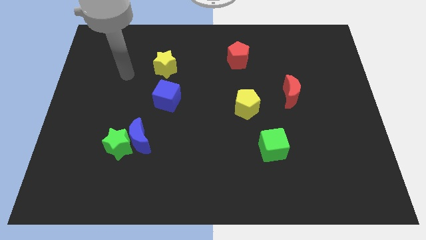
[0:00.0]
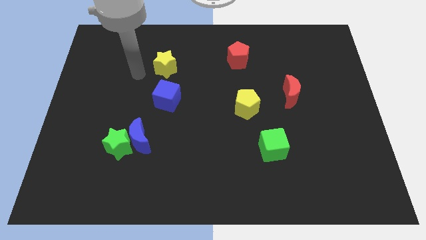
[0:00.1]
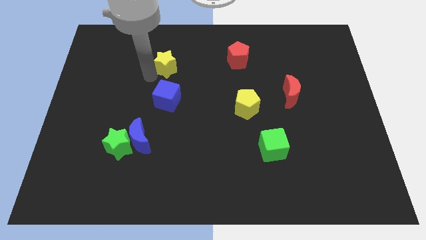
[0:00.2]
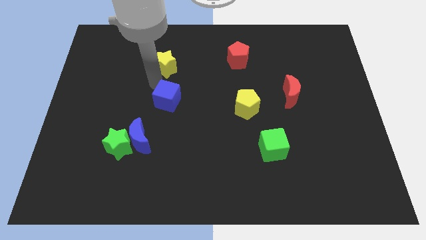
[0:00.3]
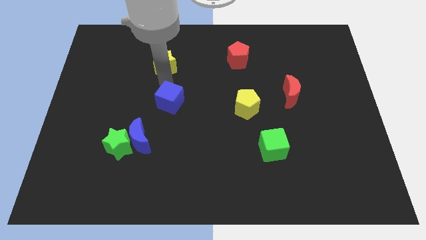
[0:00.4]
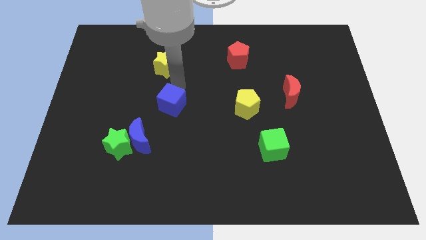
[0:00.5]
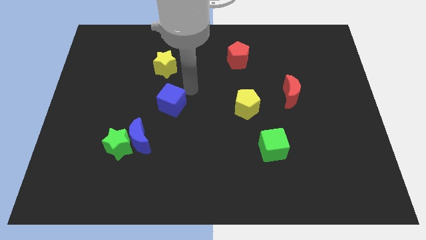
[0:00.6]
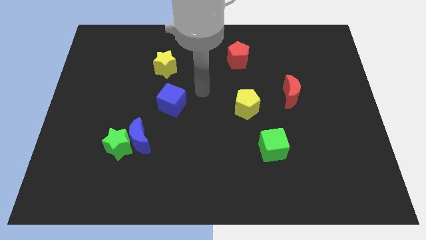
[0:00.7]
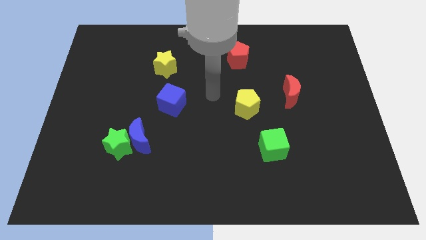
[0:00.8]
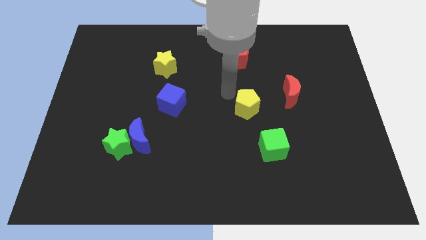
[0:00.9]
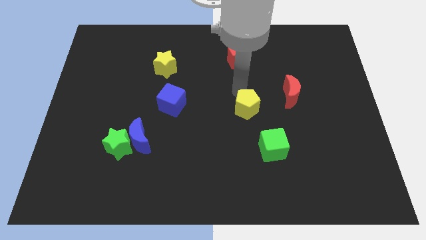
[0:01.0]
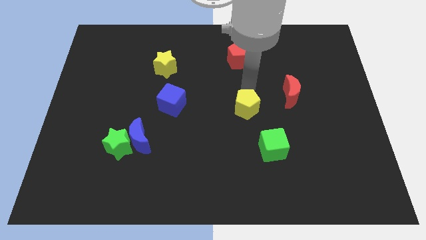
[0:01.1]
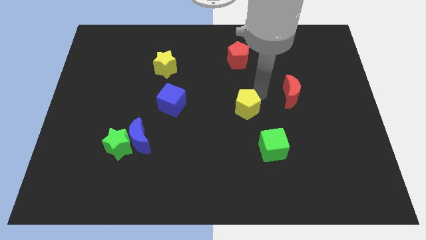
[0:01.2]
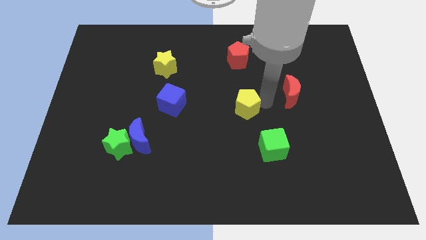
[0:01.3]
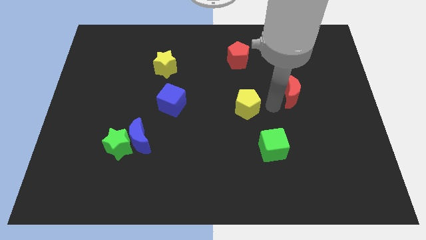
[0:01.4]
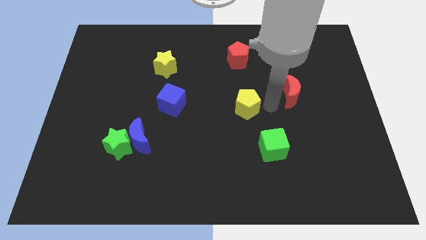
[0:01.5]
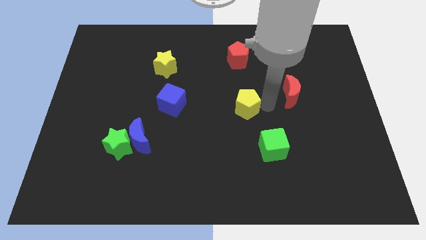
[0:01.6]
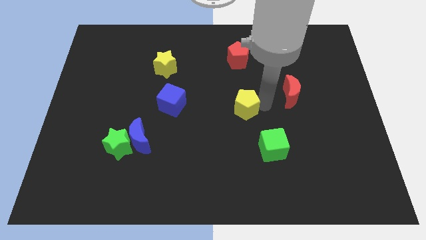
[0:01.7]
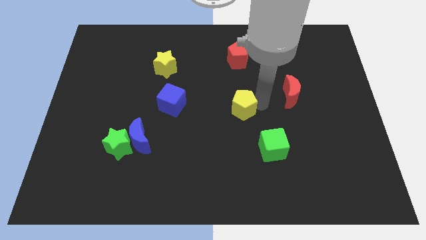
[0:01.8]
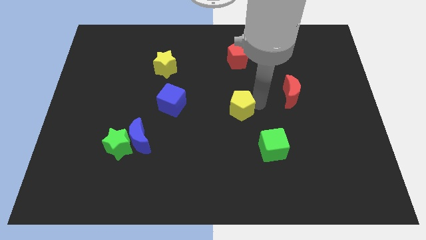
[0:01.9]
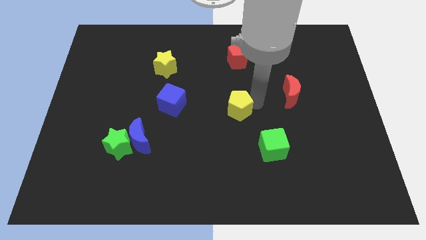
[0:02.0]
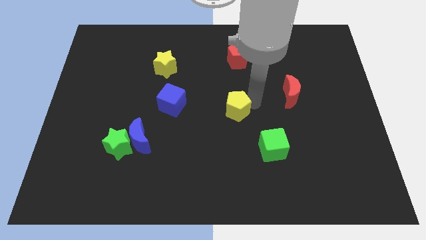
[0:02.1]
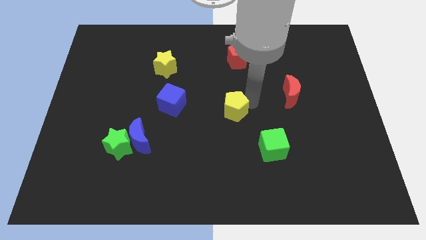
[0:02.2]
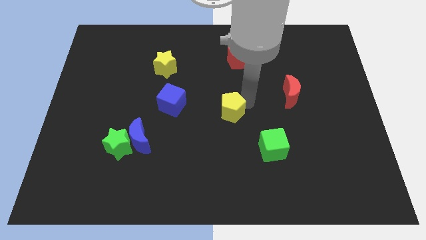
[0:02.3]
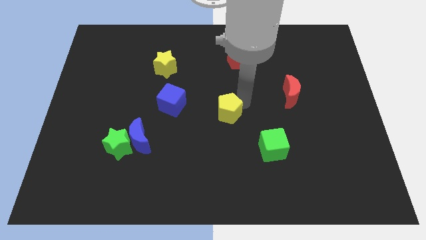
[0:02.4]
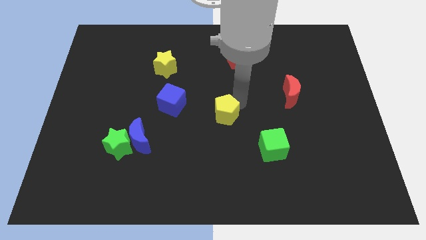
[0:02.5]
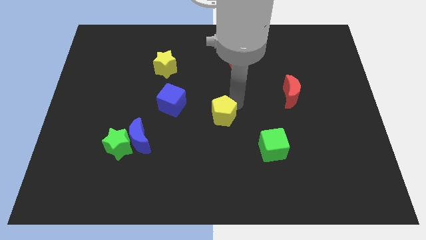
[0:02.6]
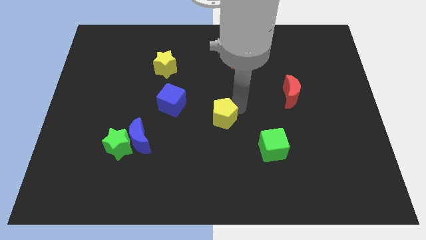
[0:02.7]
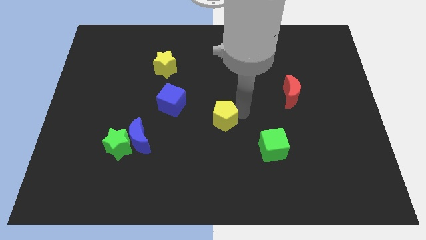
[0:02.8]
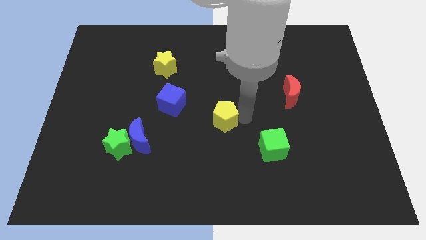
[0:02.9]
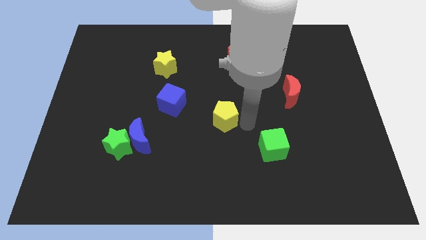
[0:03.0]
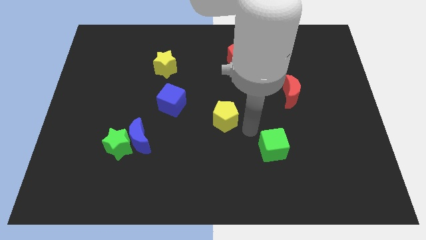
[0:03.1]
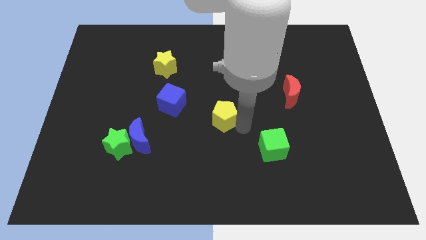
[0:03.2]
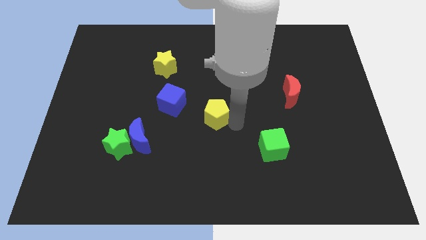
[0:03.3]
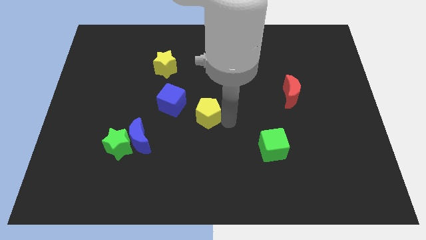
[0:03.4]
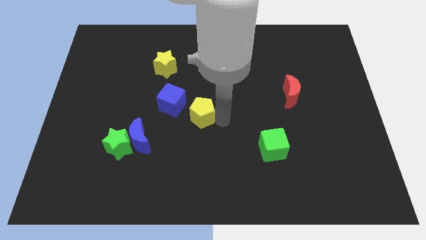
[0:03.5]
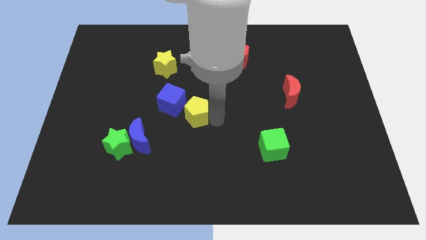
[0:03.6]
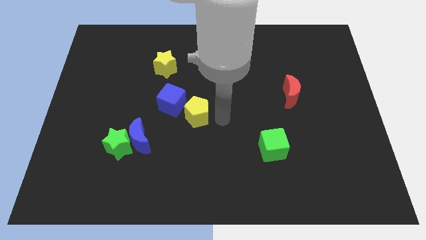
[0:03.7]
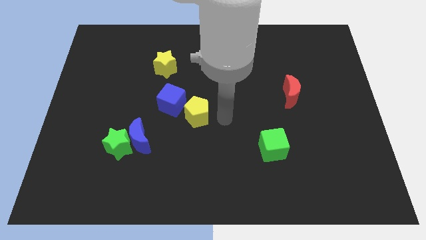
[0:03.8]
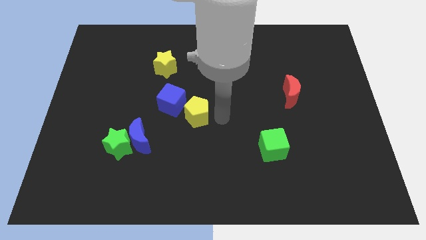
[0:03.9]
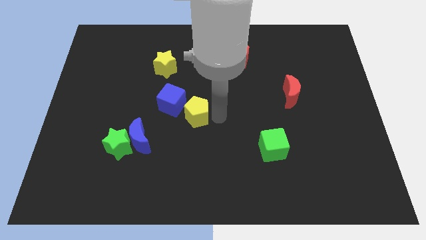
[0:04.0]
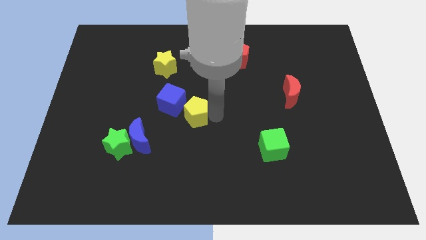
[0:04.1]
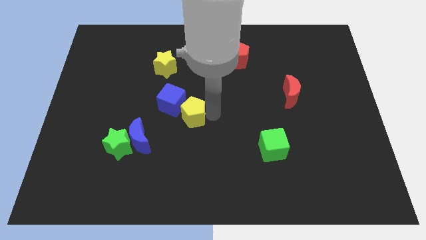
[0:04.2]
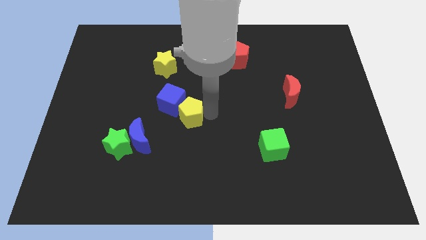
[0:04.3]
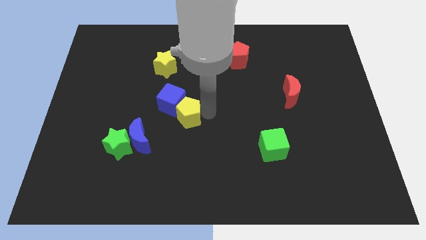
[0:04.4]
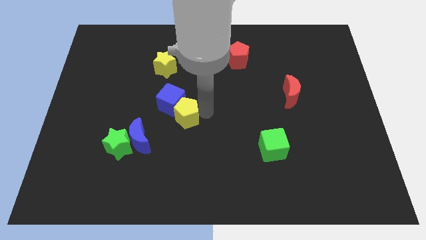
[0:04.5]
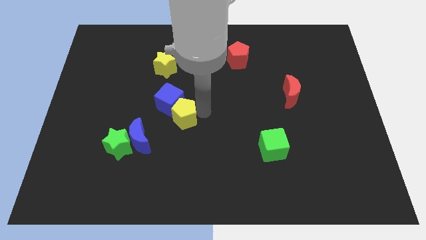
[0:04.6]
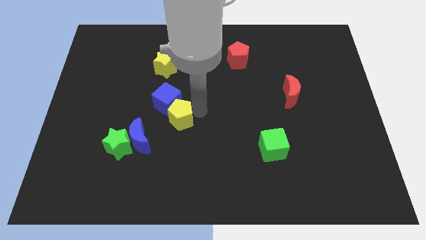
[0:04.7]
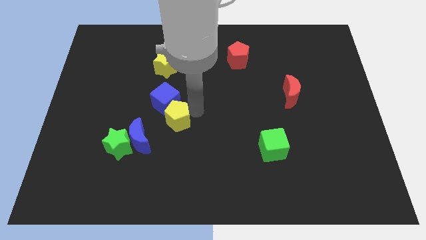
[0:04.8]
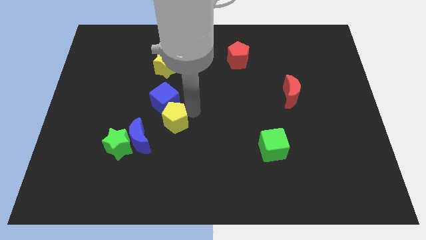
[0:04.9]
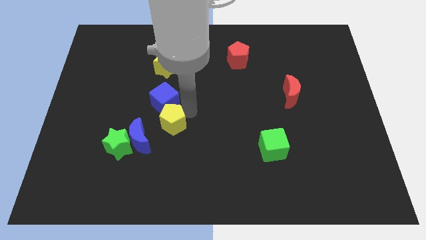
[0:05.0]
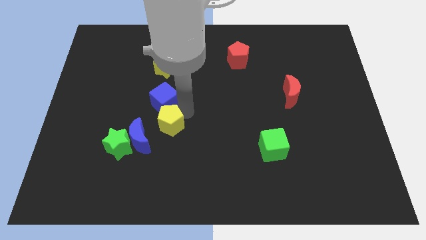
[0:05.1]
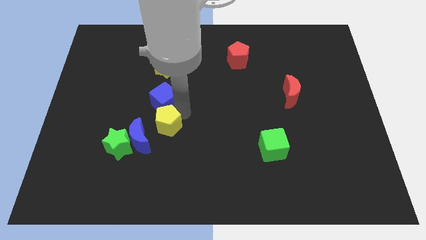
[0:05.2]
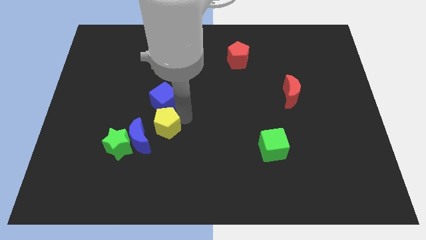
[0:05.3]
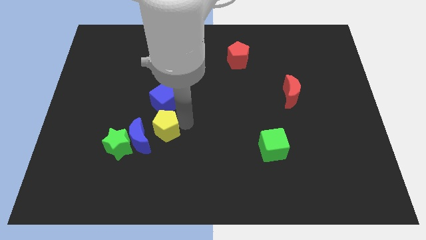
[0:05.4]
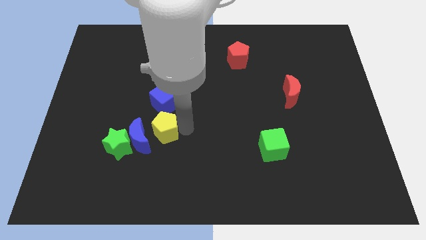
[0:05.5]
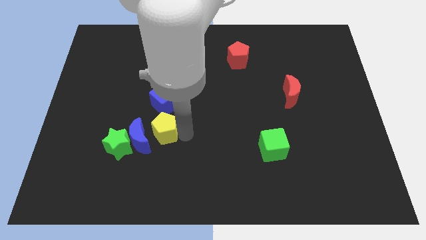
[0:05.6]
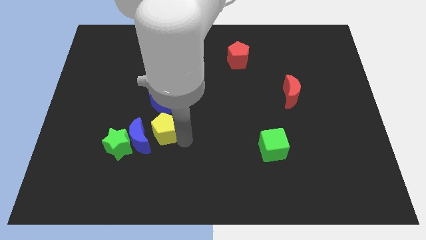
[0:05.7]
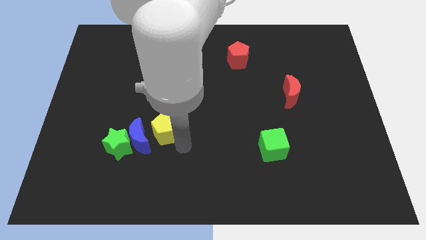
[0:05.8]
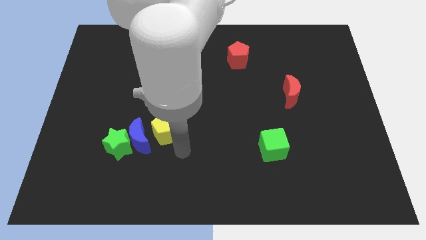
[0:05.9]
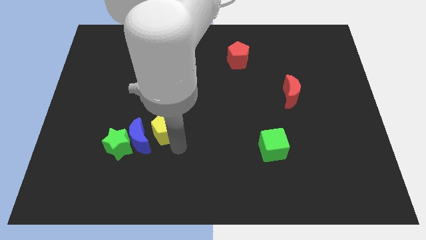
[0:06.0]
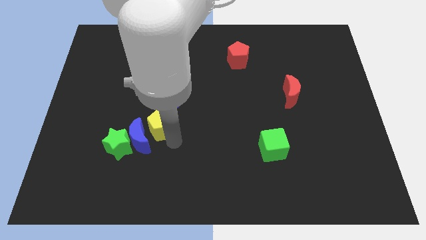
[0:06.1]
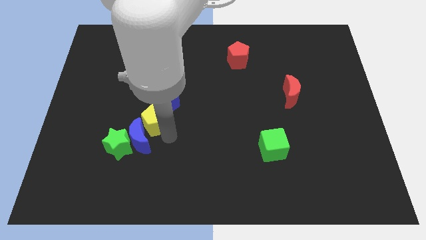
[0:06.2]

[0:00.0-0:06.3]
slide the yellow pentagon to the left

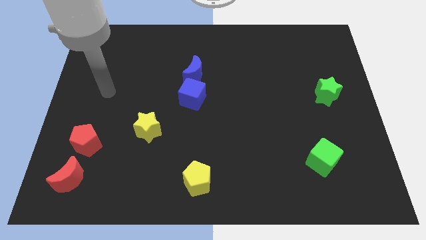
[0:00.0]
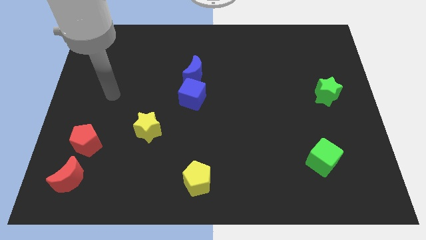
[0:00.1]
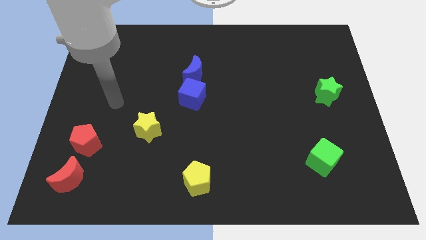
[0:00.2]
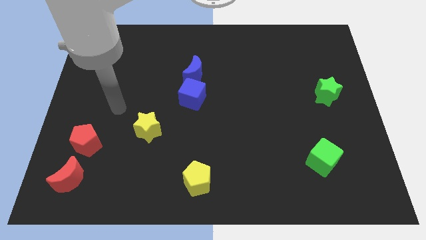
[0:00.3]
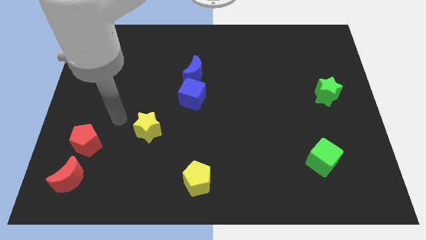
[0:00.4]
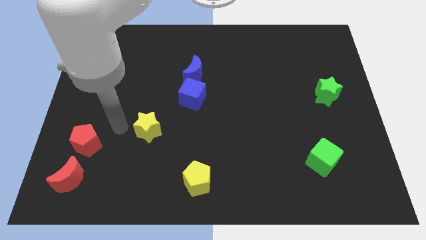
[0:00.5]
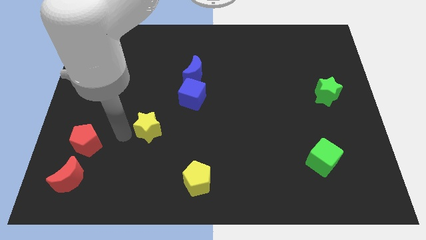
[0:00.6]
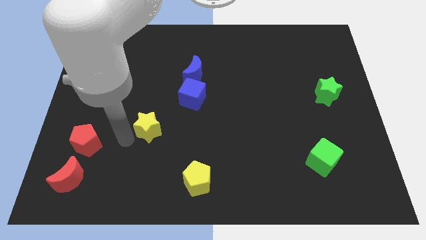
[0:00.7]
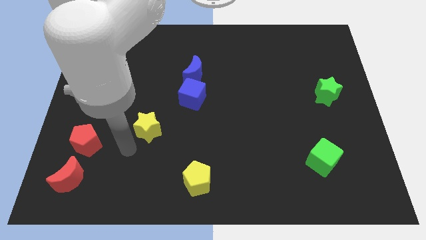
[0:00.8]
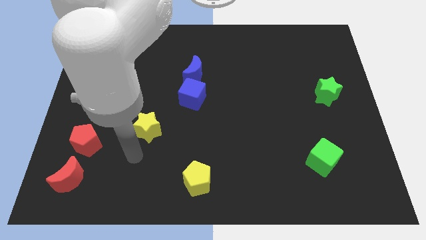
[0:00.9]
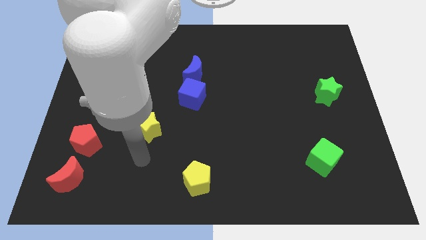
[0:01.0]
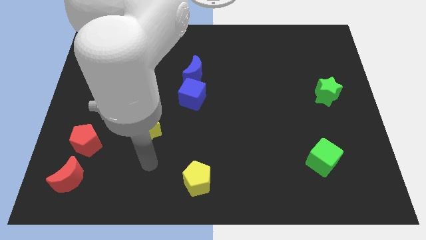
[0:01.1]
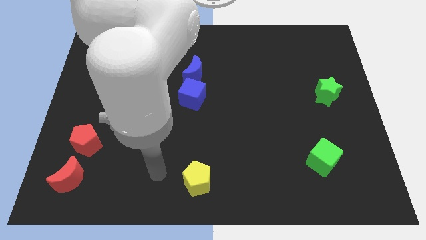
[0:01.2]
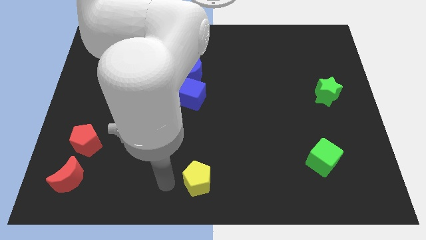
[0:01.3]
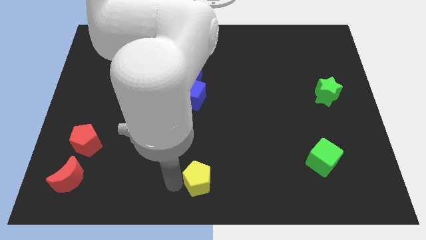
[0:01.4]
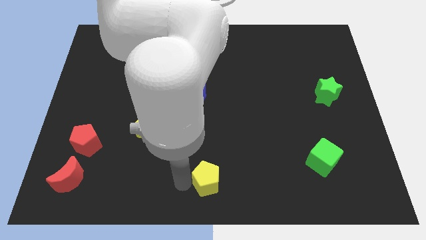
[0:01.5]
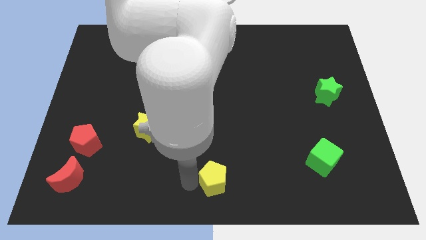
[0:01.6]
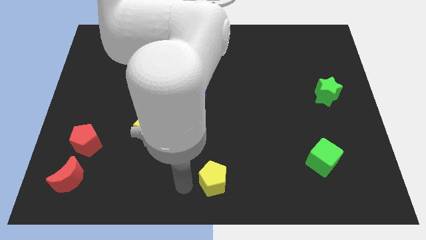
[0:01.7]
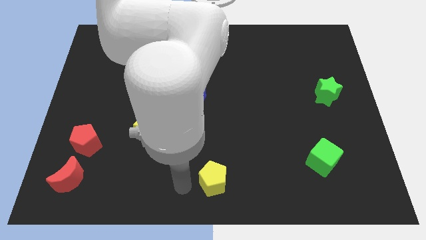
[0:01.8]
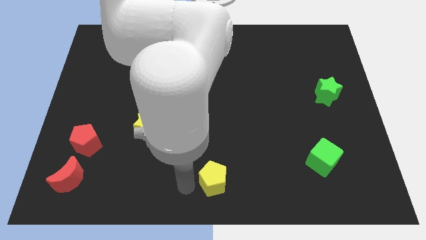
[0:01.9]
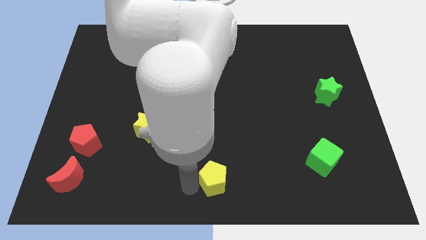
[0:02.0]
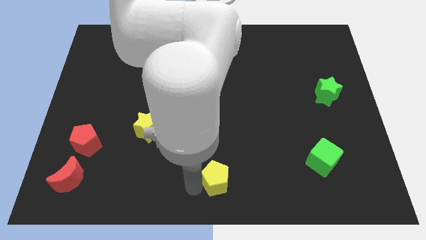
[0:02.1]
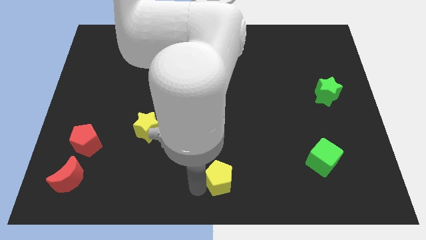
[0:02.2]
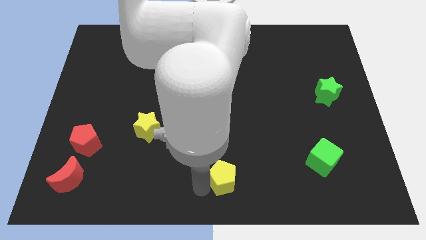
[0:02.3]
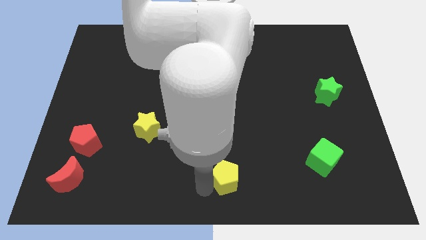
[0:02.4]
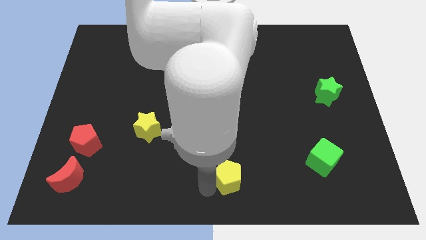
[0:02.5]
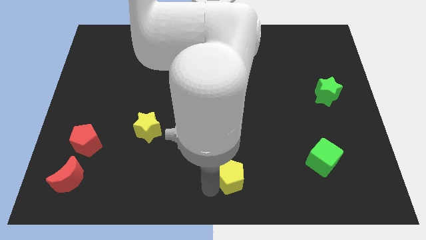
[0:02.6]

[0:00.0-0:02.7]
slightly move the yellow pentagon to the right
